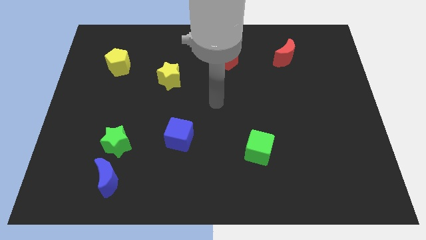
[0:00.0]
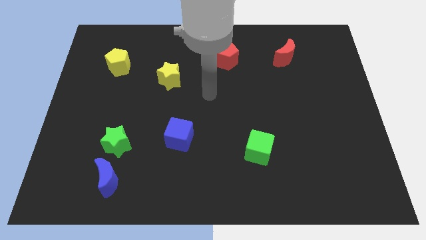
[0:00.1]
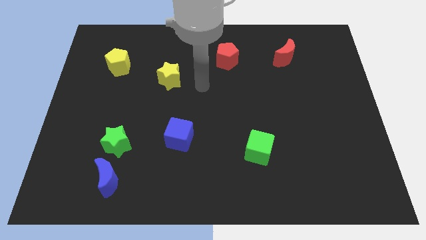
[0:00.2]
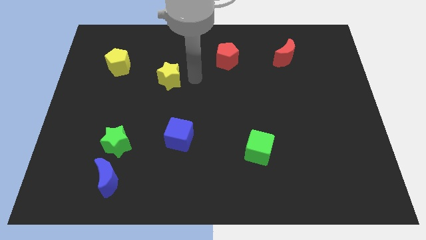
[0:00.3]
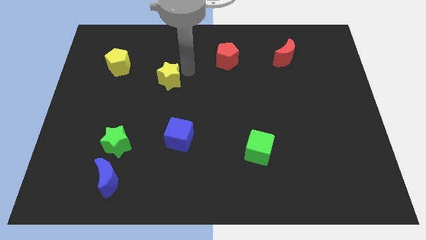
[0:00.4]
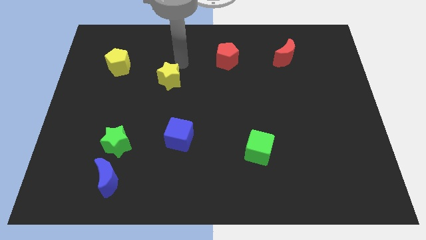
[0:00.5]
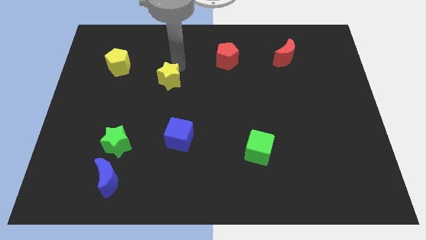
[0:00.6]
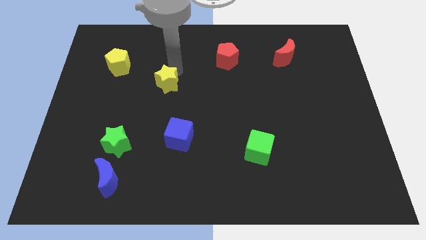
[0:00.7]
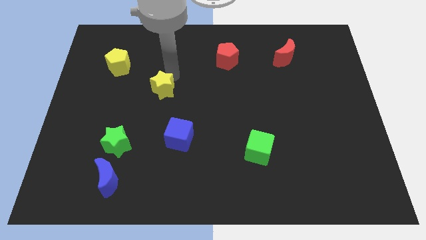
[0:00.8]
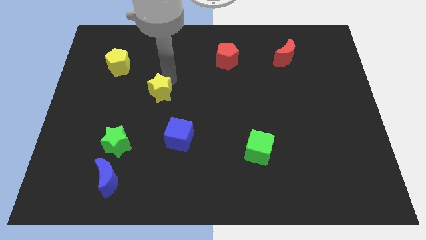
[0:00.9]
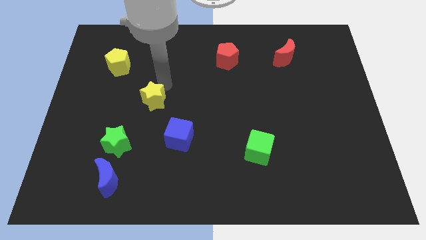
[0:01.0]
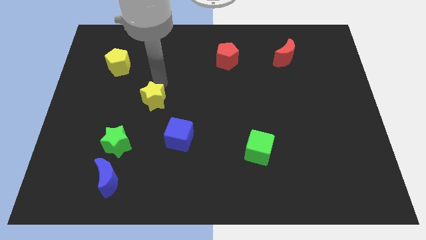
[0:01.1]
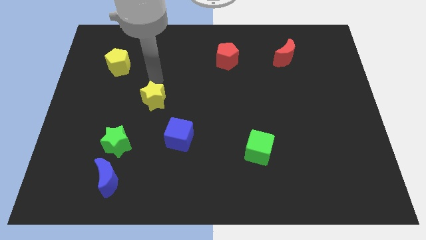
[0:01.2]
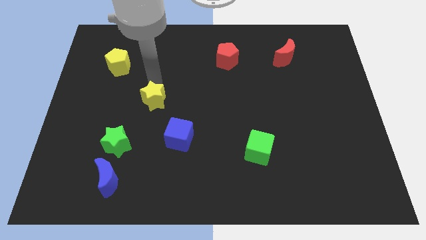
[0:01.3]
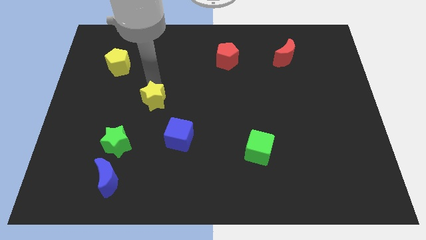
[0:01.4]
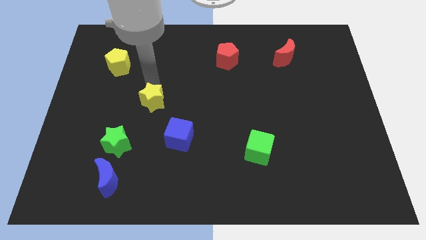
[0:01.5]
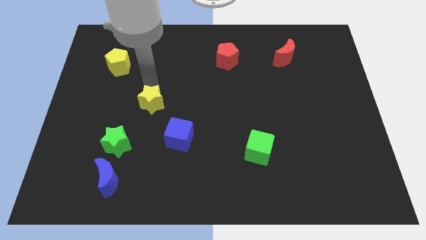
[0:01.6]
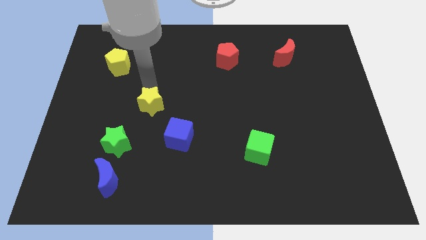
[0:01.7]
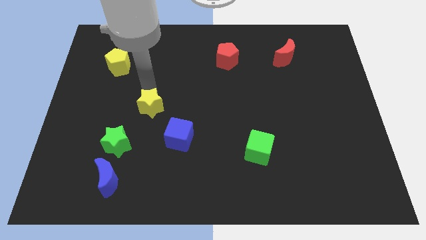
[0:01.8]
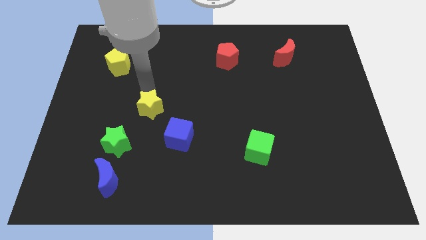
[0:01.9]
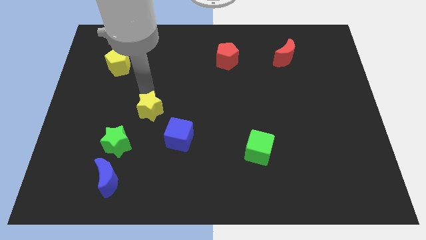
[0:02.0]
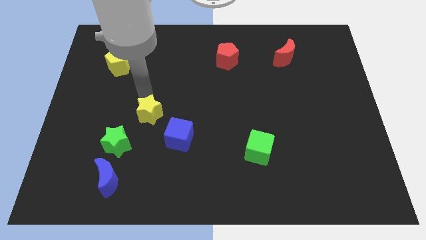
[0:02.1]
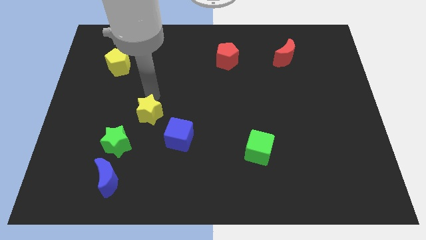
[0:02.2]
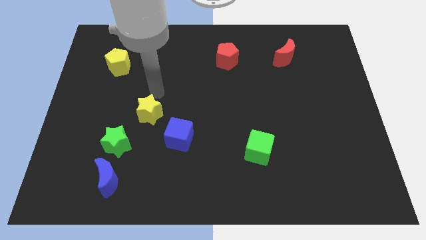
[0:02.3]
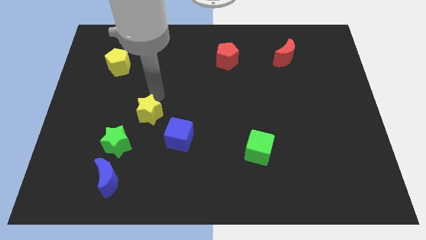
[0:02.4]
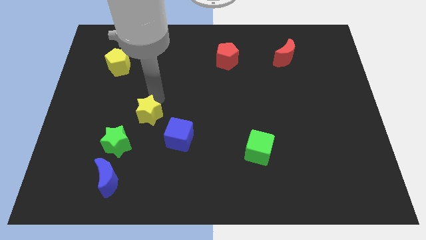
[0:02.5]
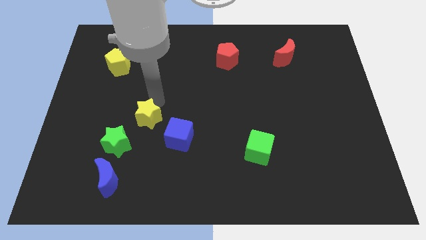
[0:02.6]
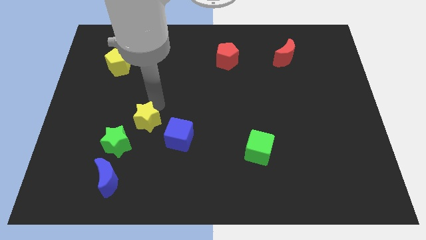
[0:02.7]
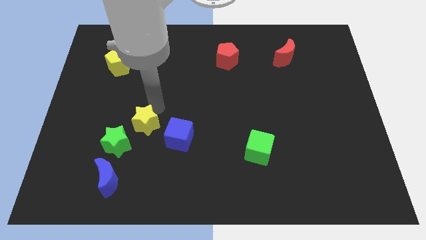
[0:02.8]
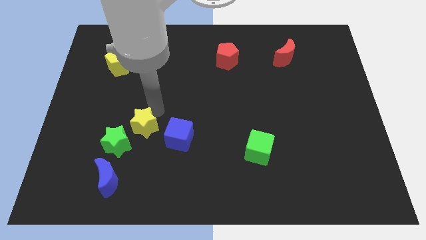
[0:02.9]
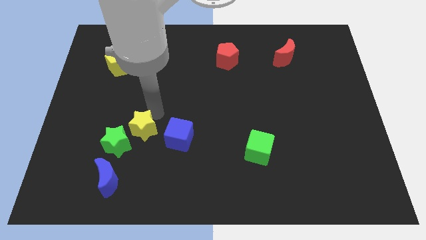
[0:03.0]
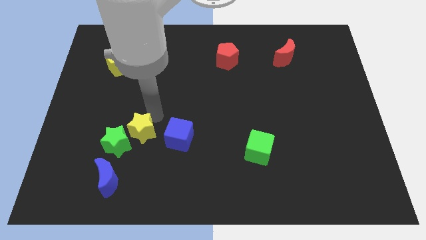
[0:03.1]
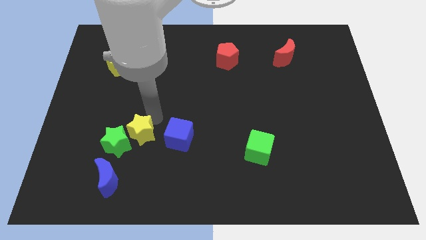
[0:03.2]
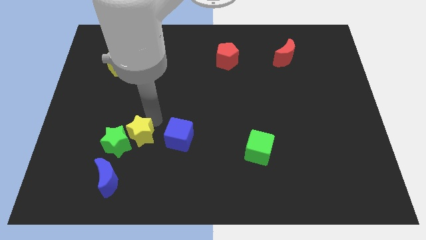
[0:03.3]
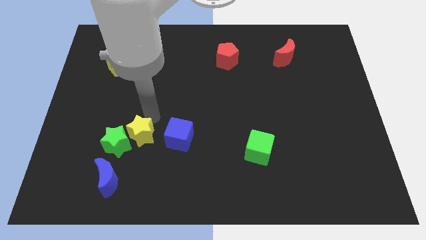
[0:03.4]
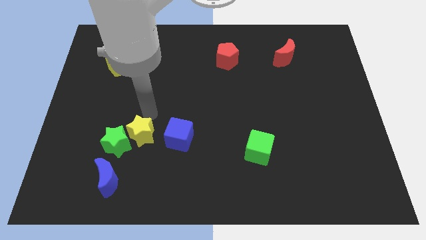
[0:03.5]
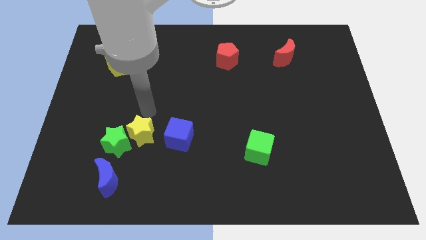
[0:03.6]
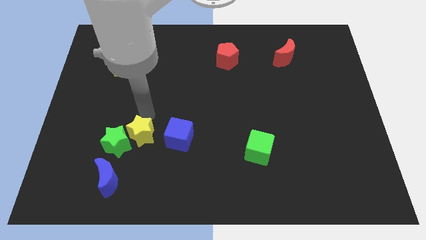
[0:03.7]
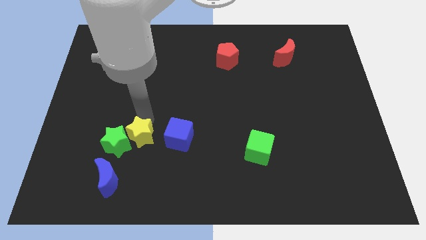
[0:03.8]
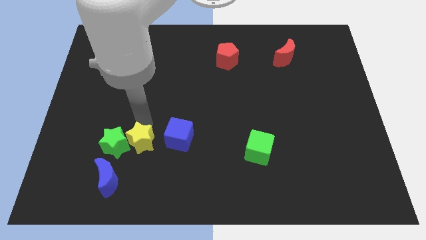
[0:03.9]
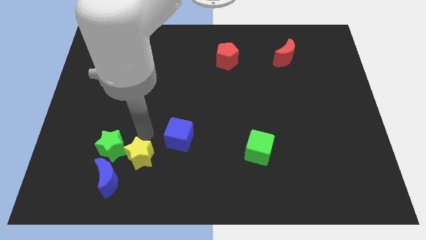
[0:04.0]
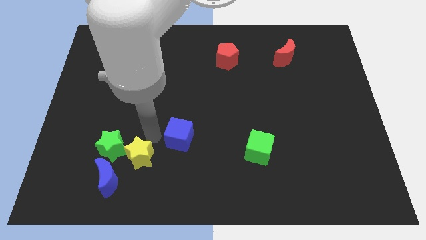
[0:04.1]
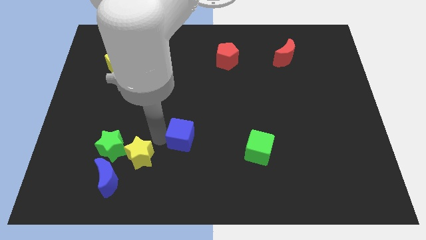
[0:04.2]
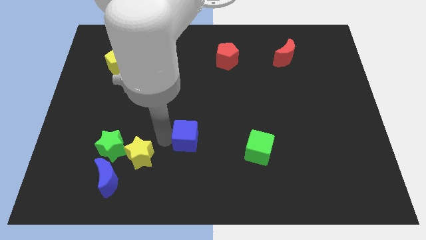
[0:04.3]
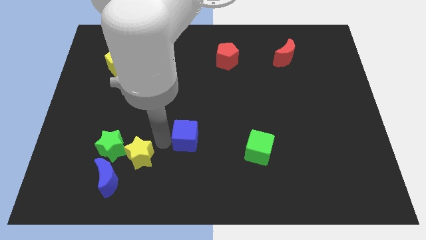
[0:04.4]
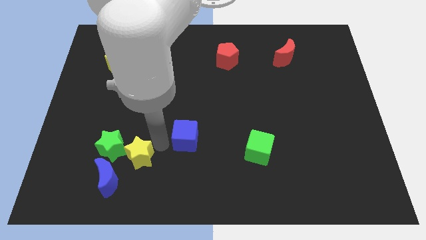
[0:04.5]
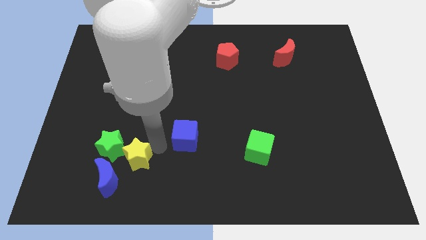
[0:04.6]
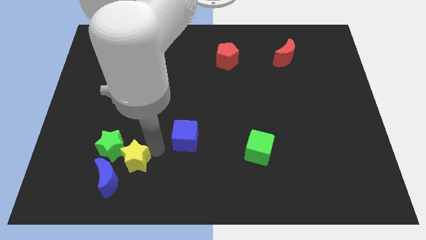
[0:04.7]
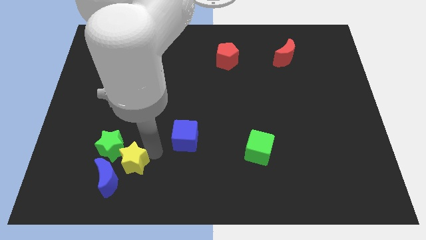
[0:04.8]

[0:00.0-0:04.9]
put the yellow star close to the blue moon

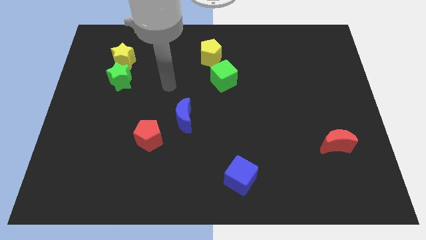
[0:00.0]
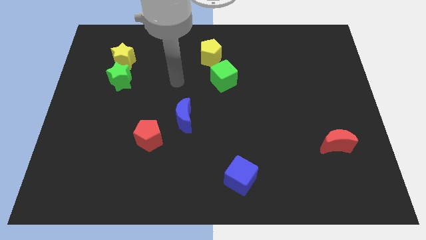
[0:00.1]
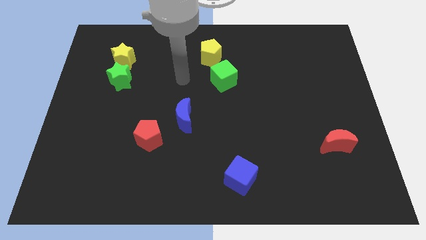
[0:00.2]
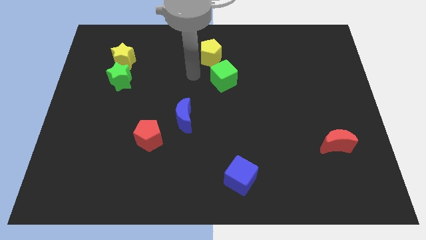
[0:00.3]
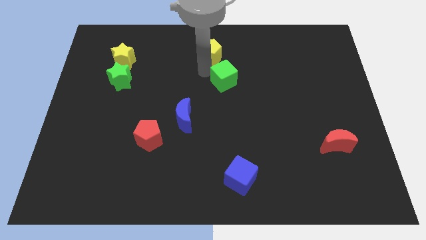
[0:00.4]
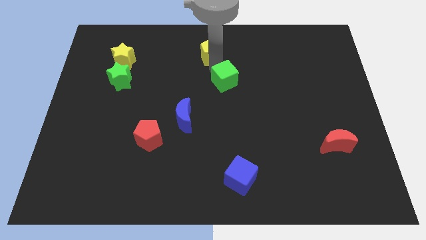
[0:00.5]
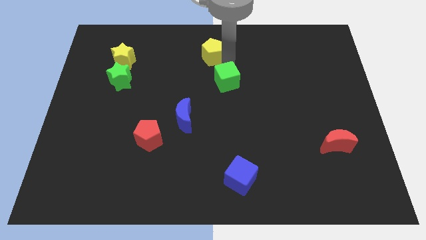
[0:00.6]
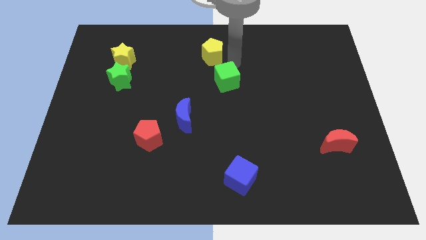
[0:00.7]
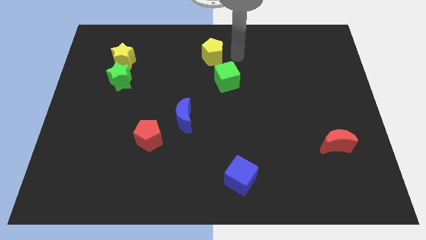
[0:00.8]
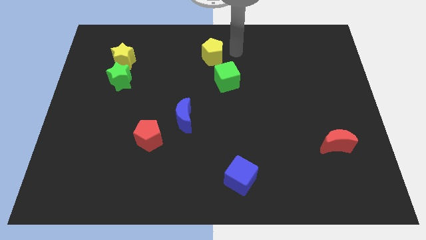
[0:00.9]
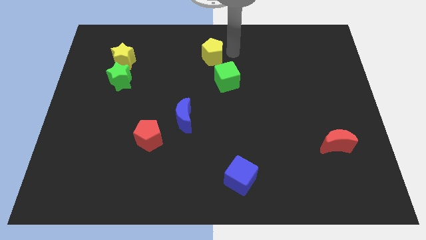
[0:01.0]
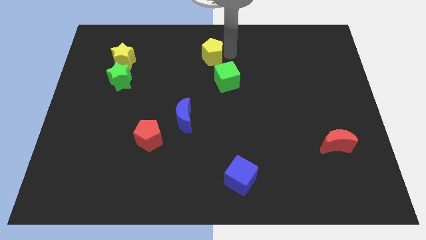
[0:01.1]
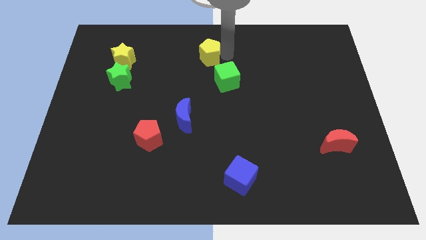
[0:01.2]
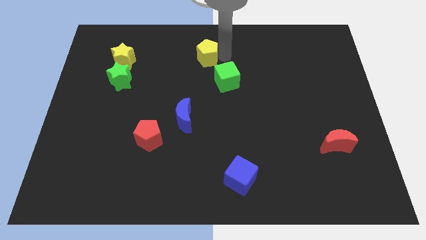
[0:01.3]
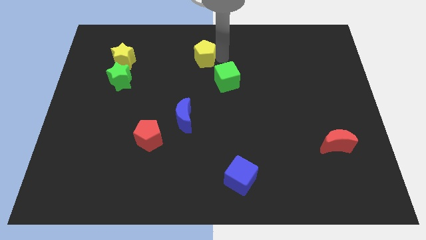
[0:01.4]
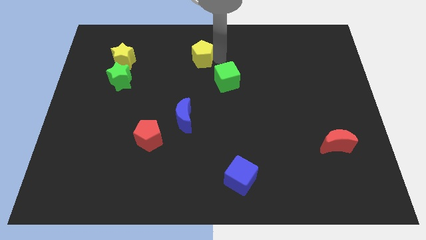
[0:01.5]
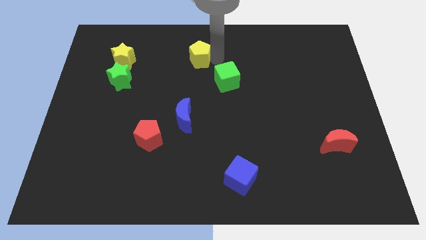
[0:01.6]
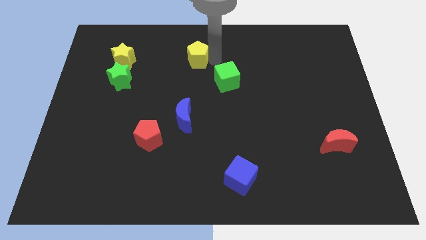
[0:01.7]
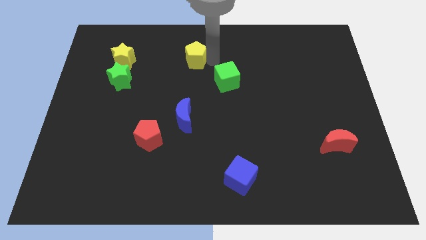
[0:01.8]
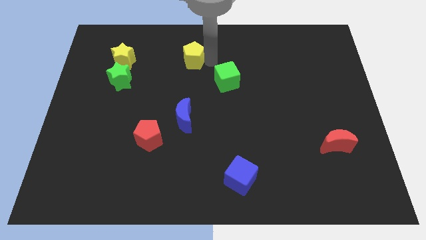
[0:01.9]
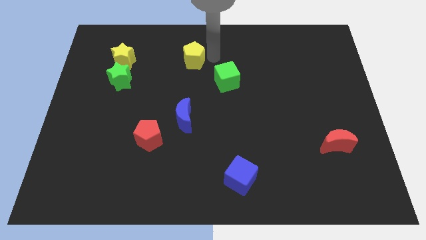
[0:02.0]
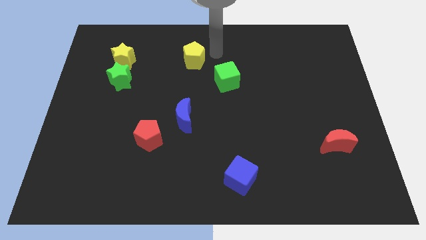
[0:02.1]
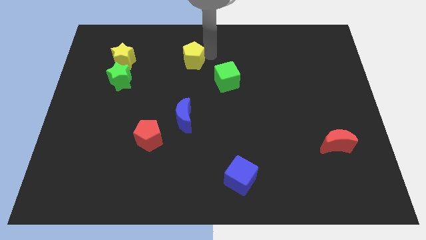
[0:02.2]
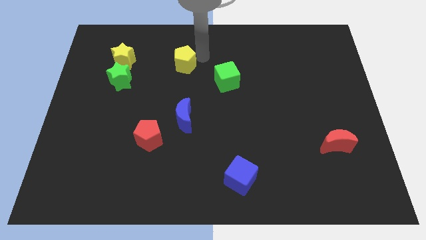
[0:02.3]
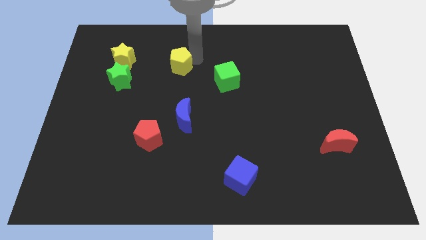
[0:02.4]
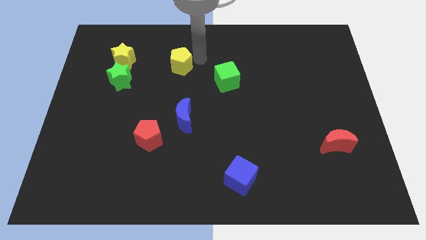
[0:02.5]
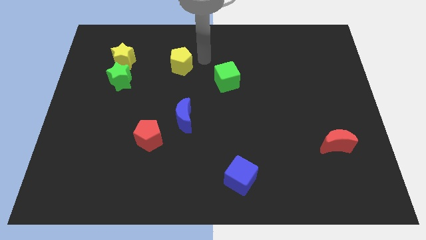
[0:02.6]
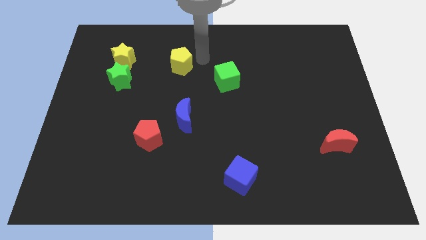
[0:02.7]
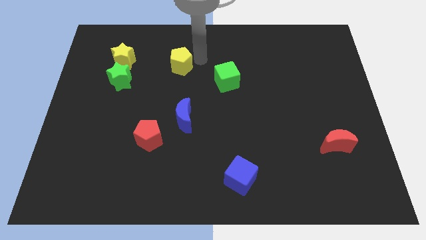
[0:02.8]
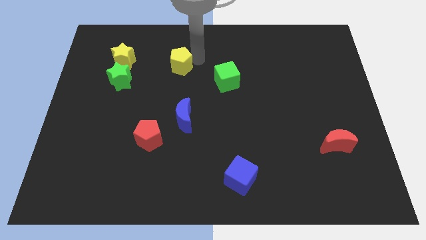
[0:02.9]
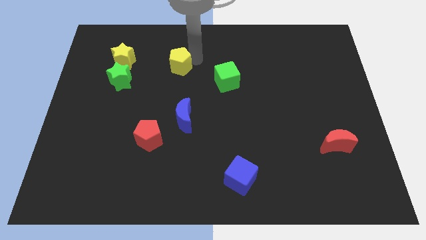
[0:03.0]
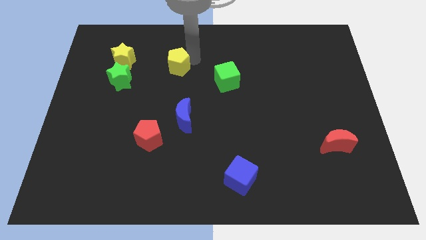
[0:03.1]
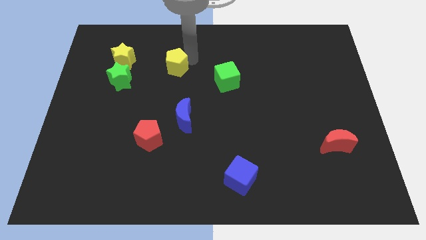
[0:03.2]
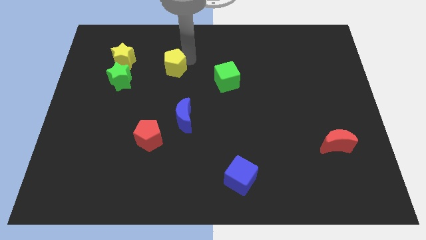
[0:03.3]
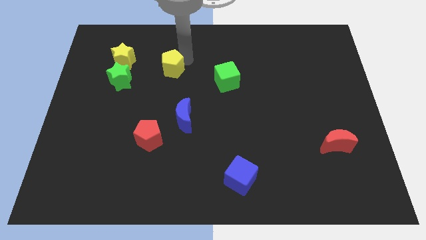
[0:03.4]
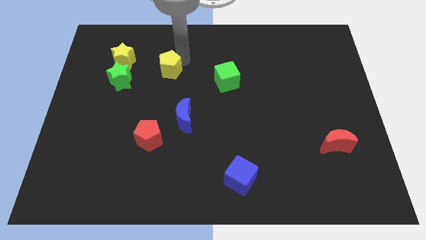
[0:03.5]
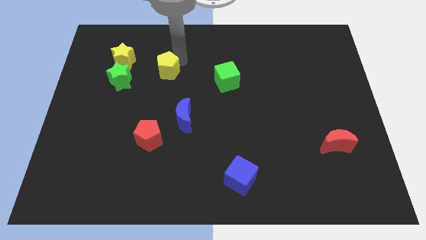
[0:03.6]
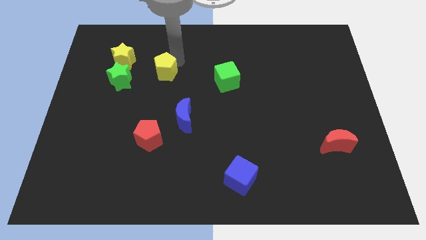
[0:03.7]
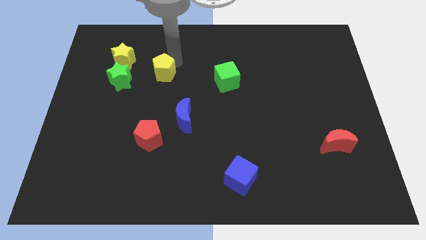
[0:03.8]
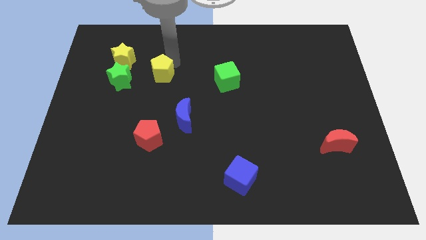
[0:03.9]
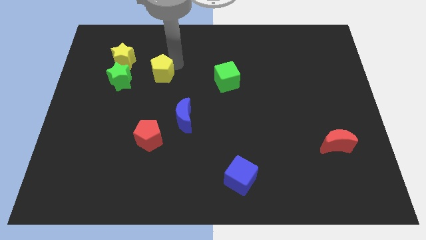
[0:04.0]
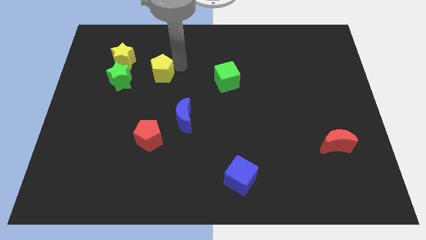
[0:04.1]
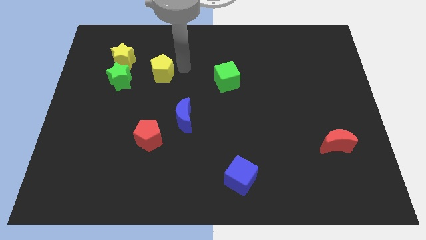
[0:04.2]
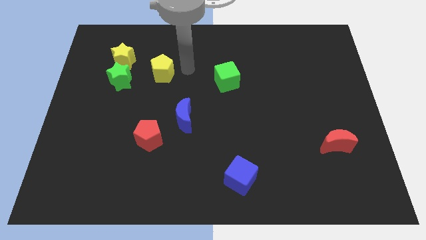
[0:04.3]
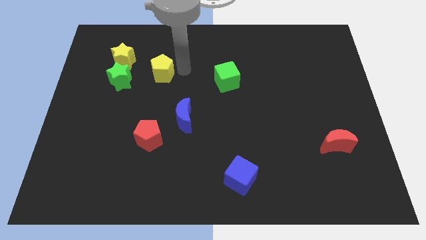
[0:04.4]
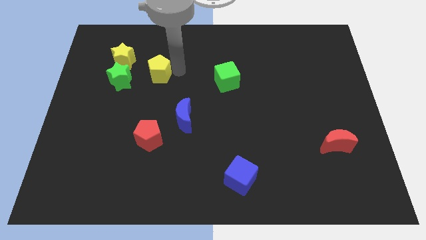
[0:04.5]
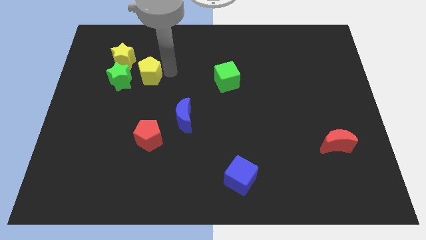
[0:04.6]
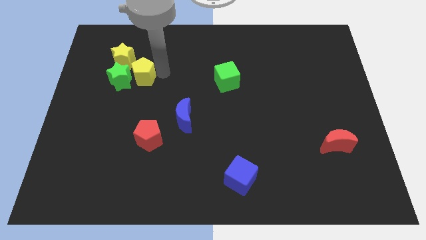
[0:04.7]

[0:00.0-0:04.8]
push the yellow pentagon close to the green star
